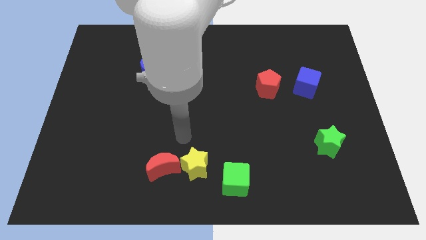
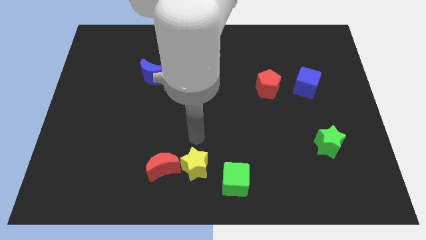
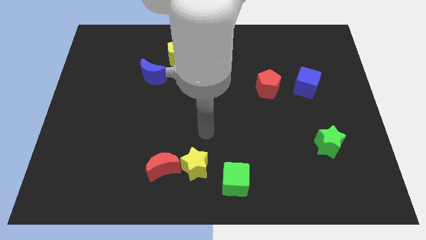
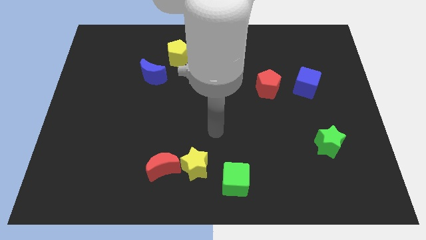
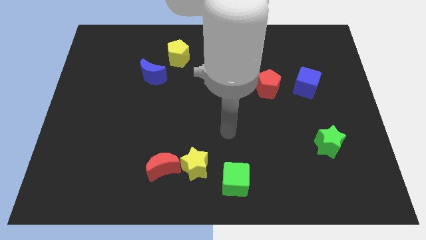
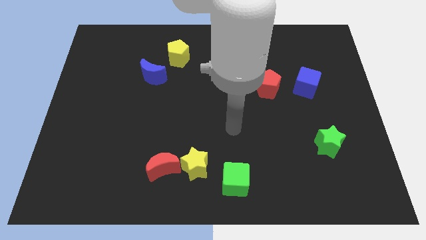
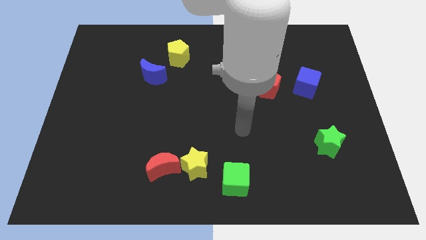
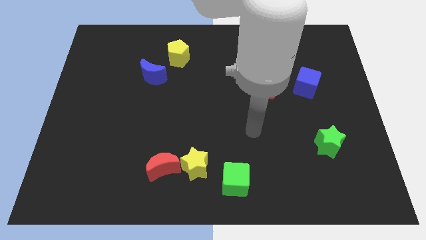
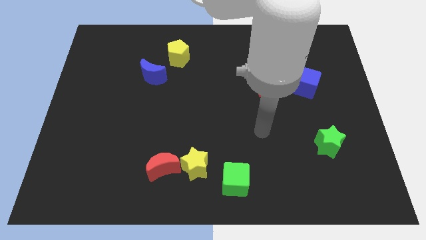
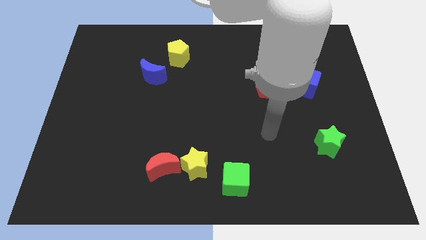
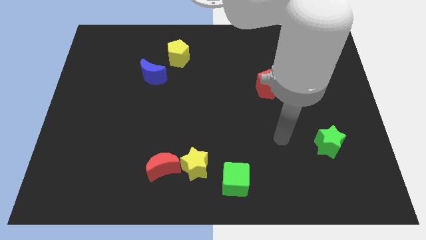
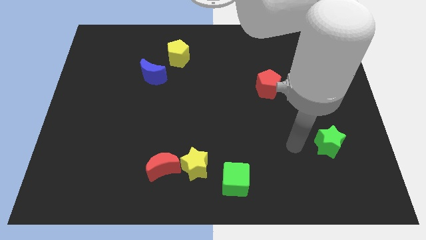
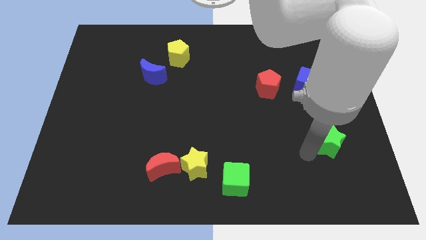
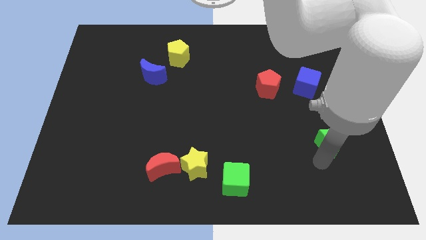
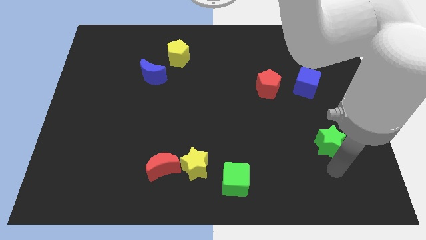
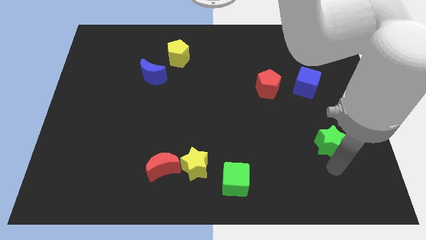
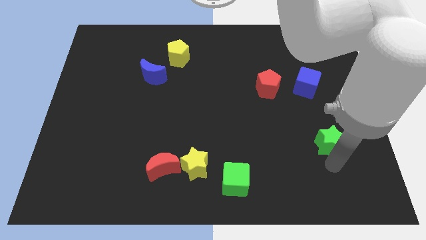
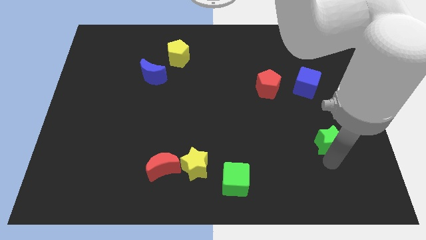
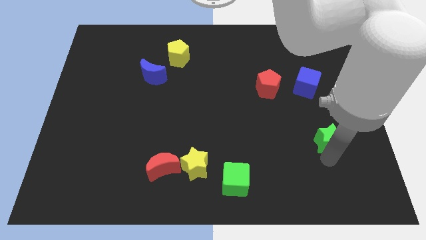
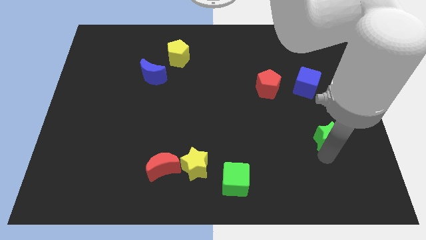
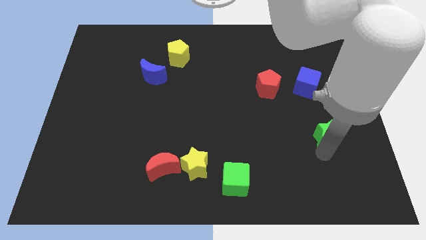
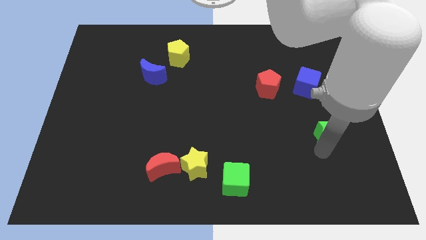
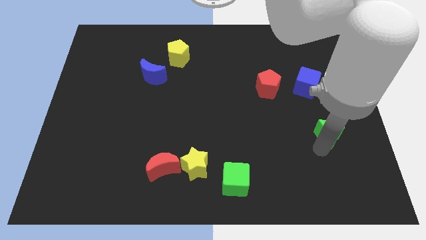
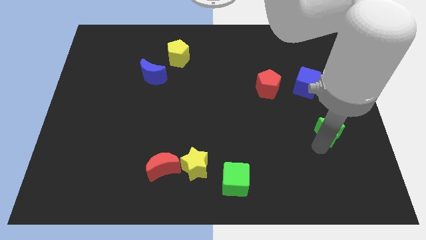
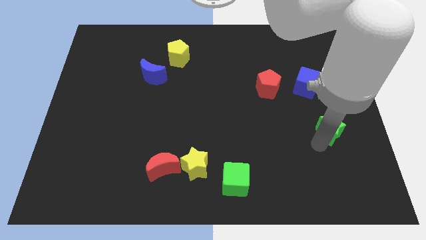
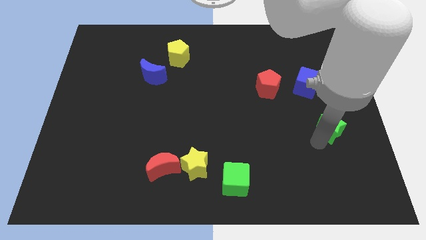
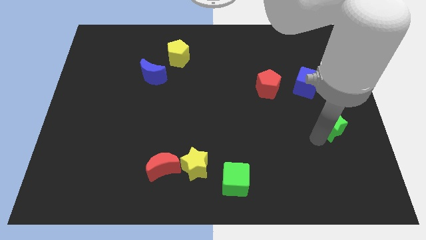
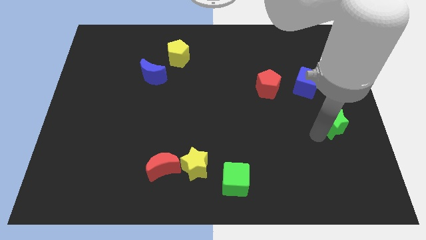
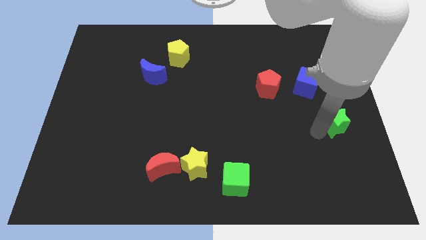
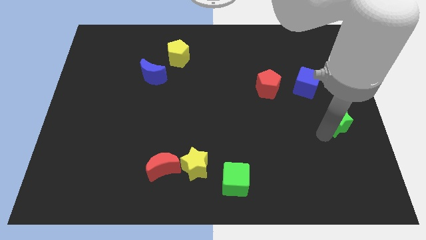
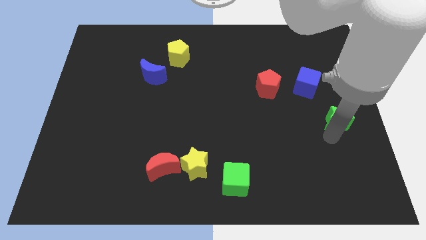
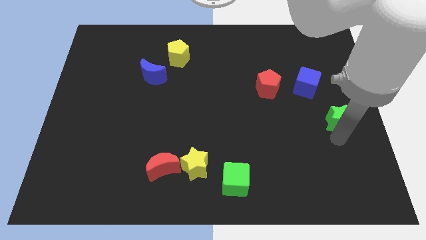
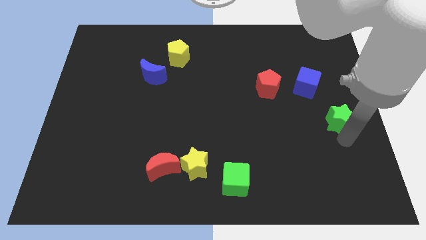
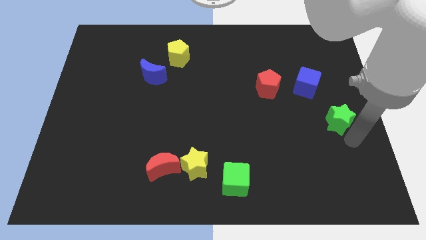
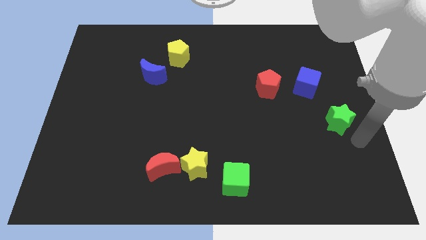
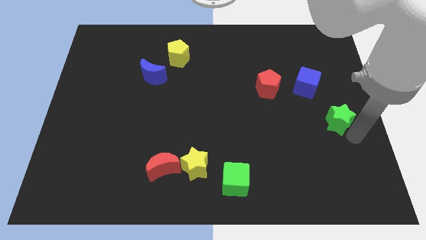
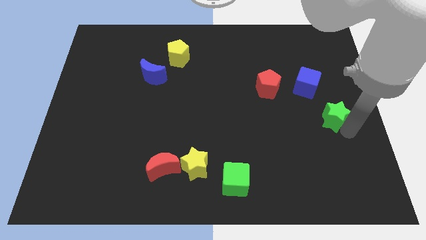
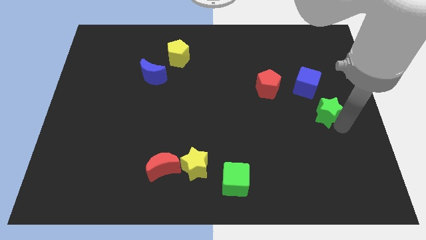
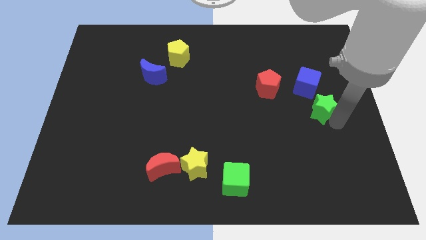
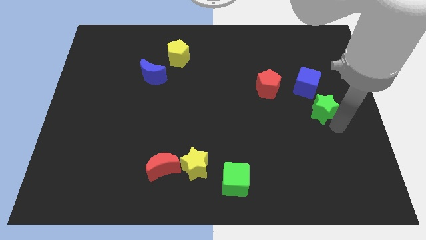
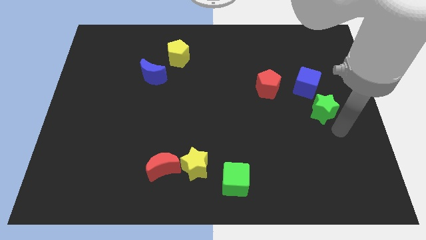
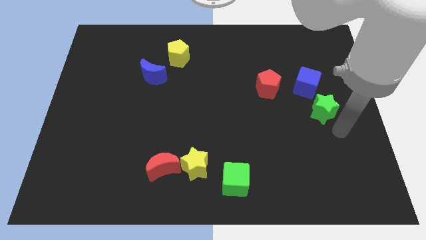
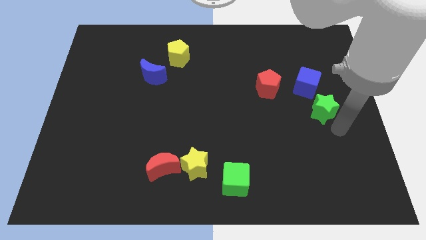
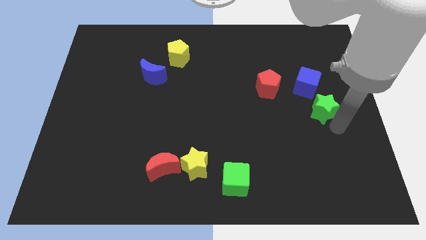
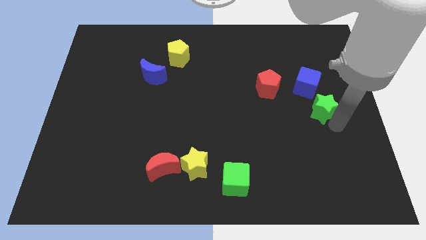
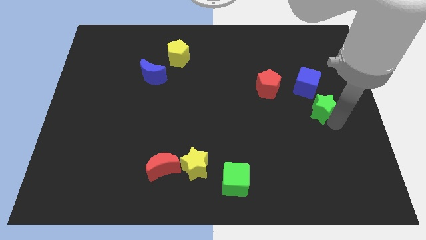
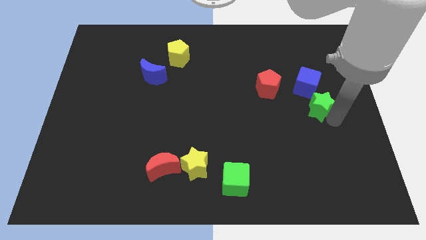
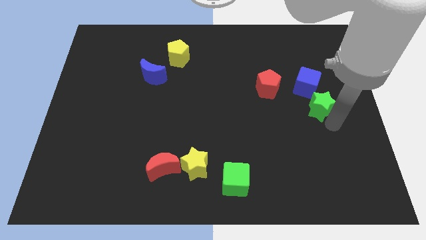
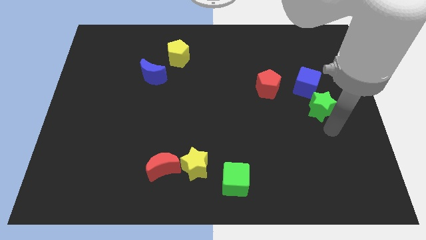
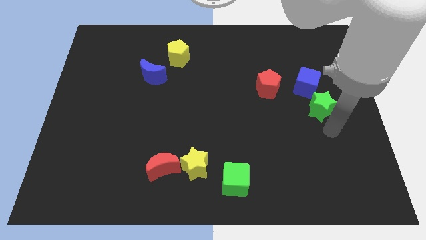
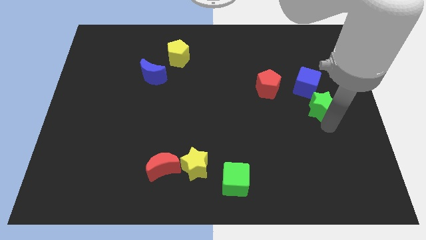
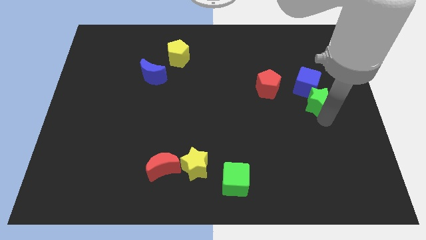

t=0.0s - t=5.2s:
push the green star towards the blue cube

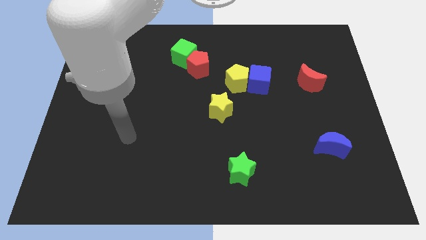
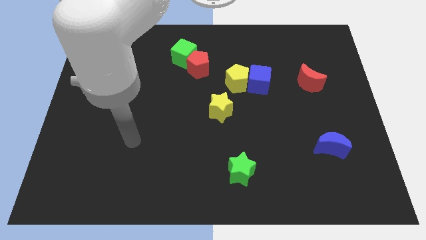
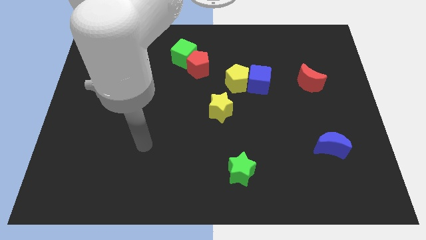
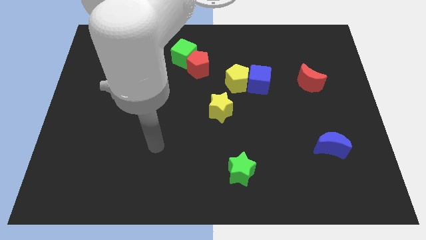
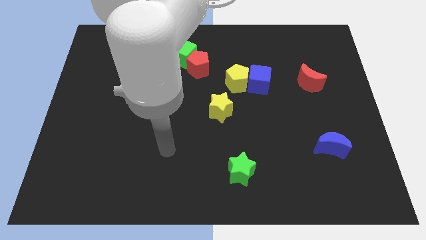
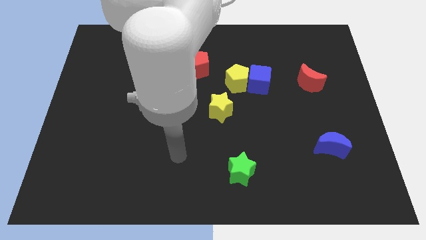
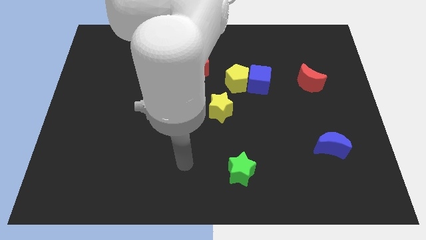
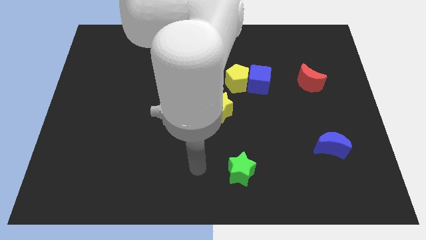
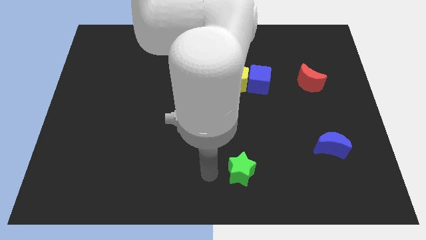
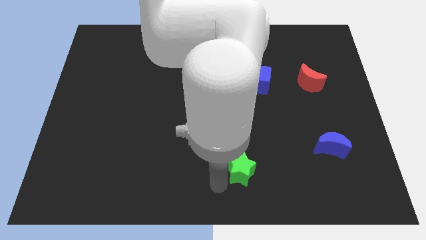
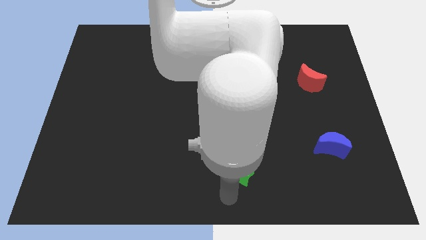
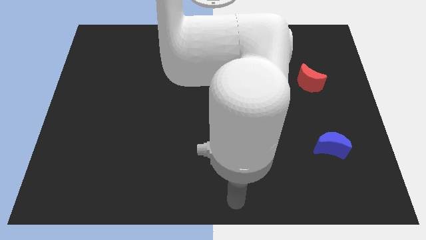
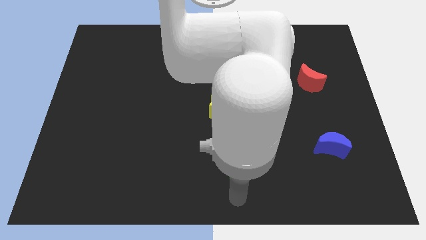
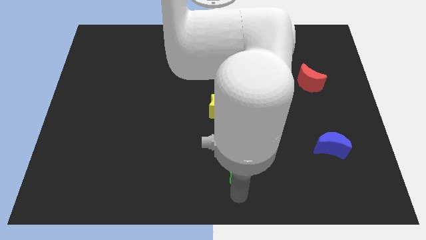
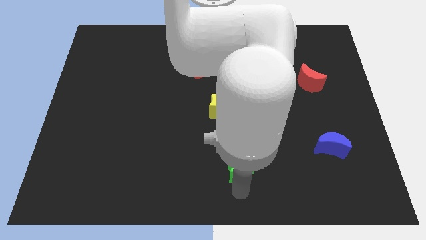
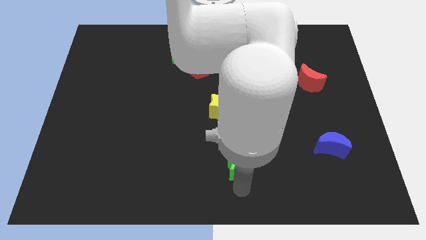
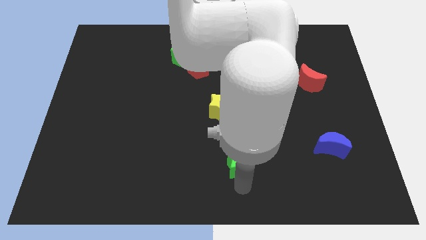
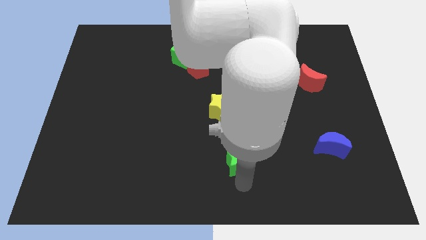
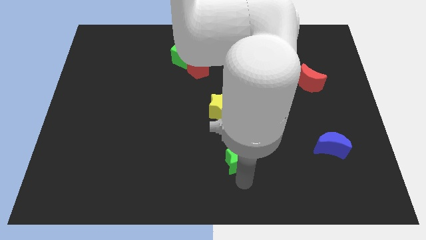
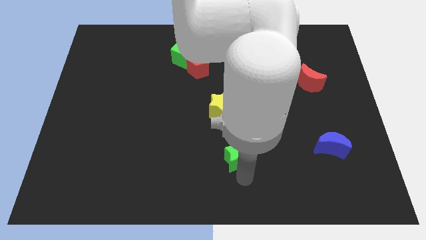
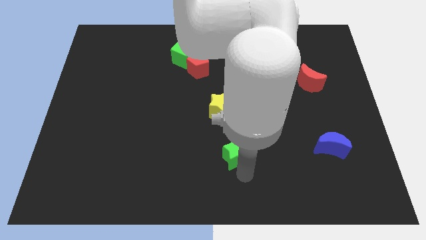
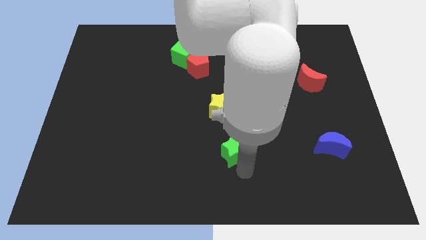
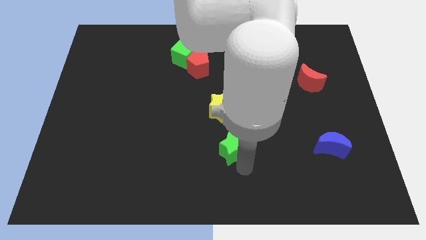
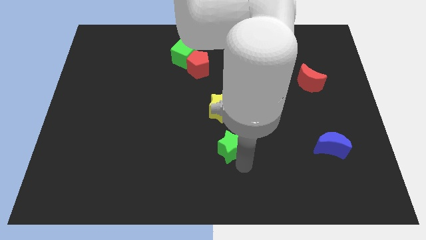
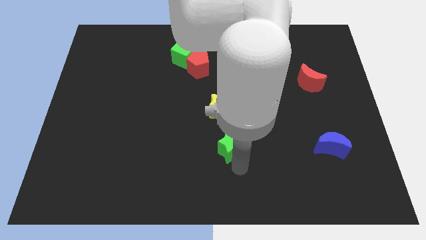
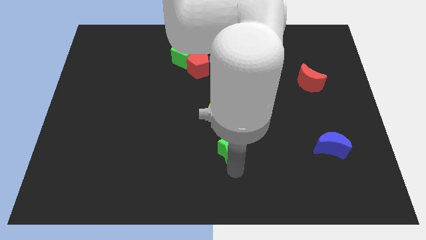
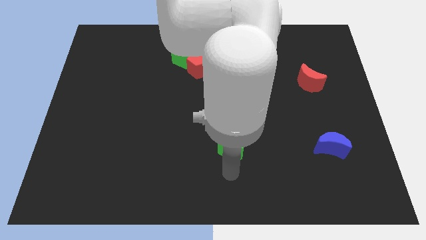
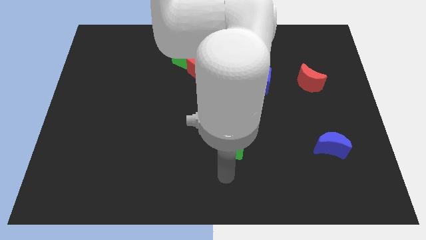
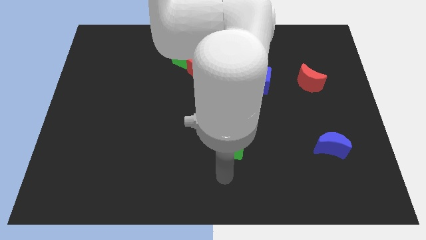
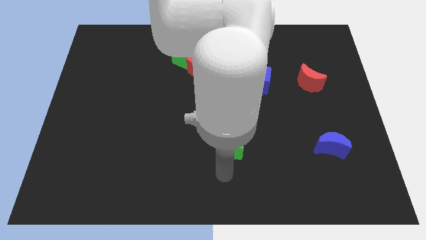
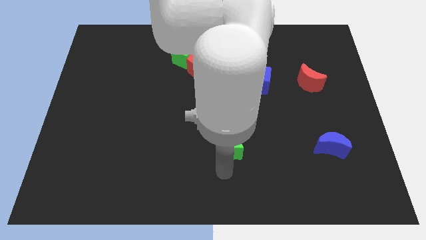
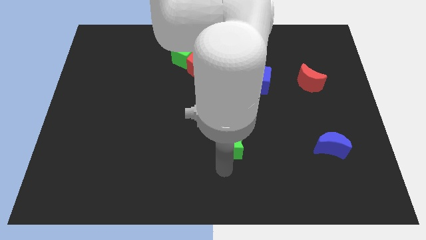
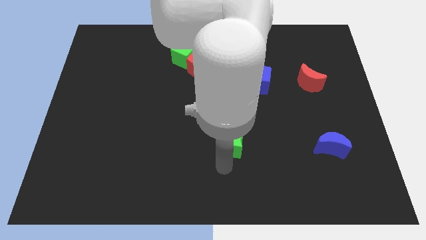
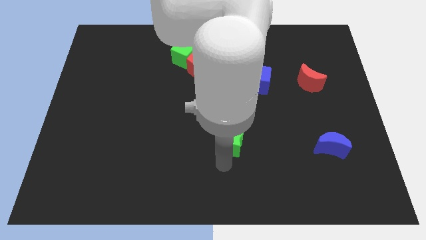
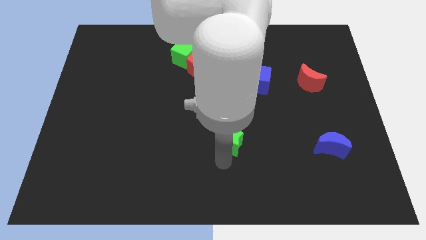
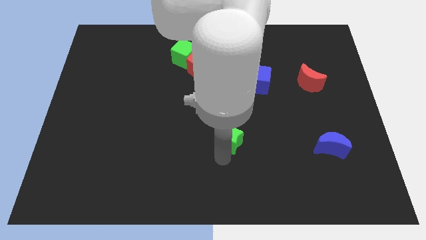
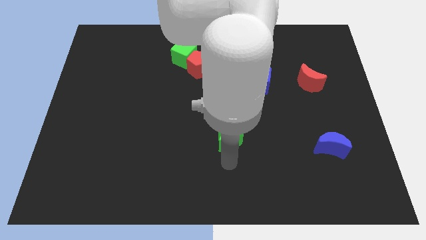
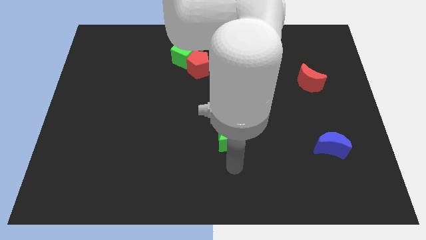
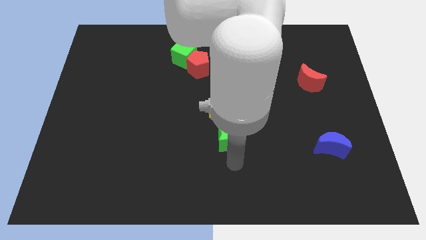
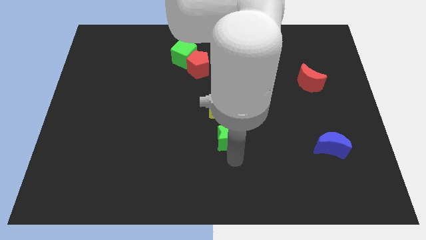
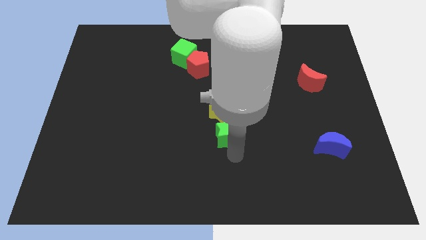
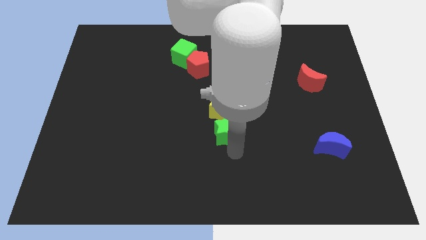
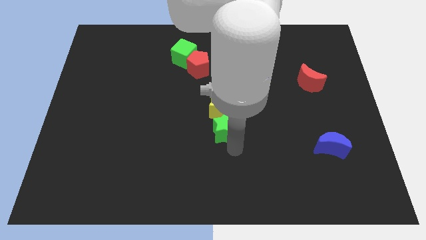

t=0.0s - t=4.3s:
slide the green star to the yellow star
